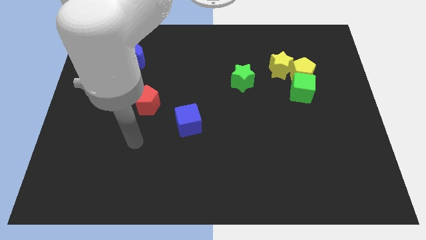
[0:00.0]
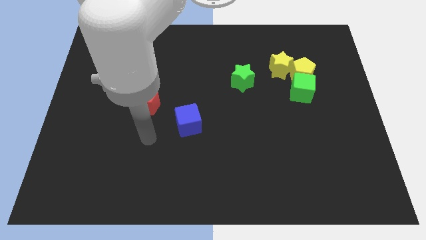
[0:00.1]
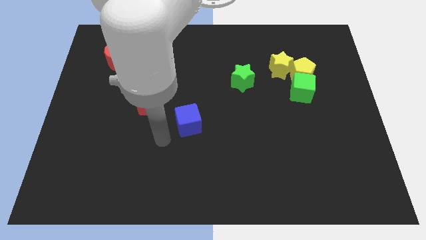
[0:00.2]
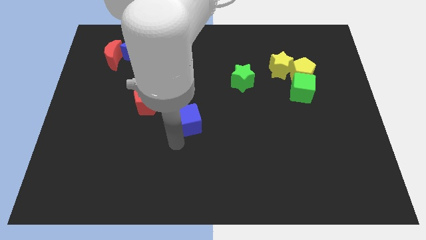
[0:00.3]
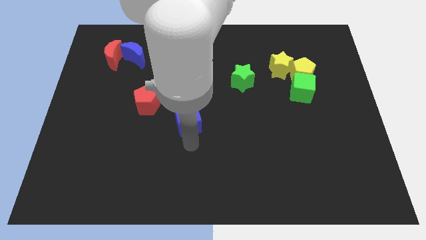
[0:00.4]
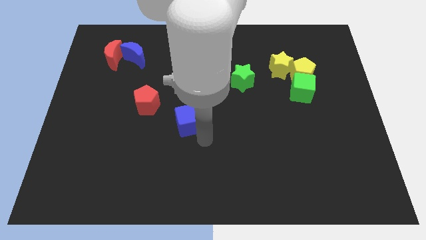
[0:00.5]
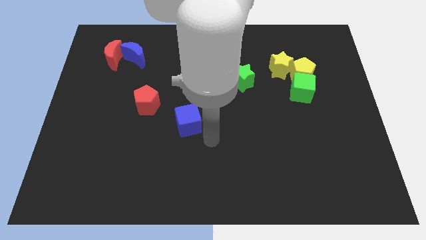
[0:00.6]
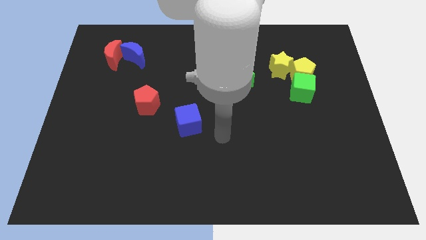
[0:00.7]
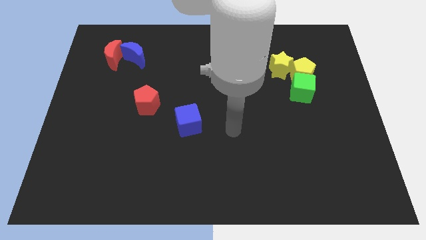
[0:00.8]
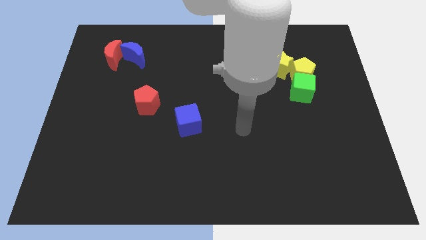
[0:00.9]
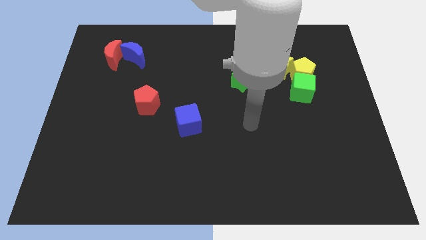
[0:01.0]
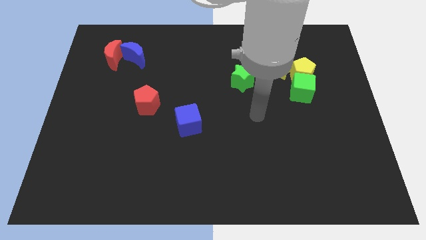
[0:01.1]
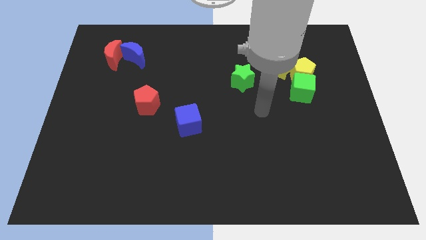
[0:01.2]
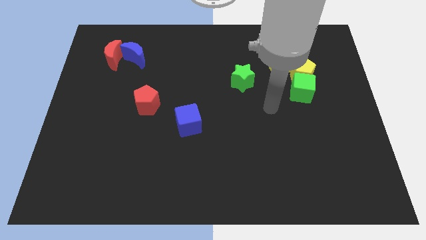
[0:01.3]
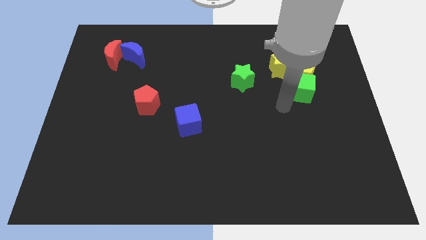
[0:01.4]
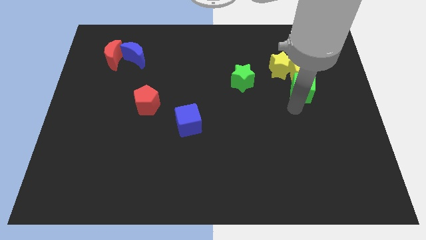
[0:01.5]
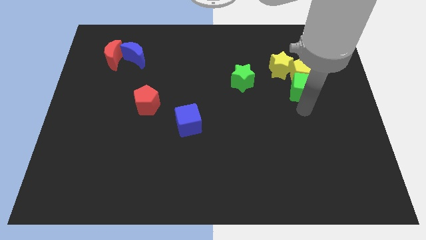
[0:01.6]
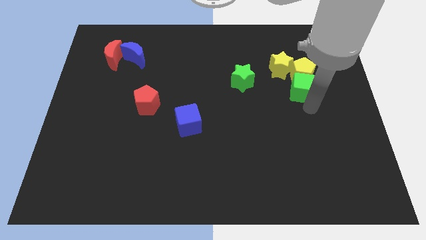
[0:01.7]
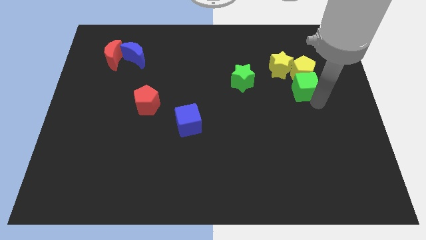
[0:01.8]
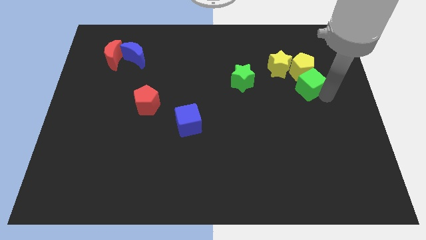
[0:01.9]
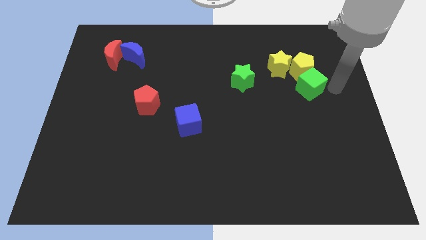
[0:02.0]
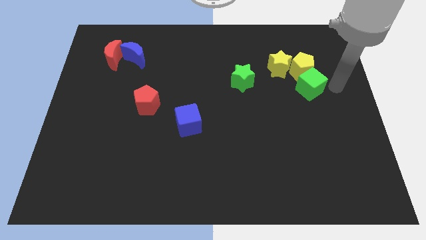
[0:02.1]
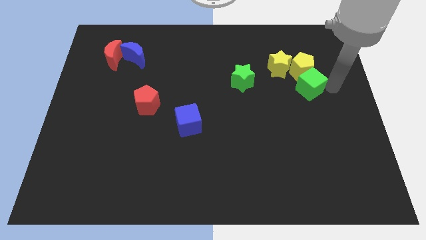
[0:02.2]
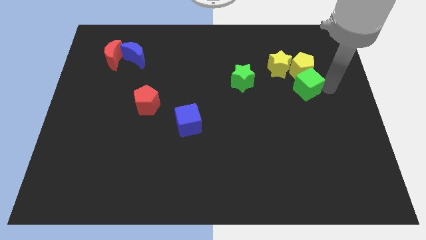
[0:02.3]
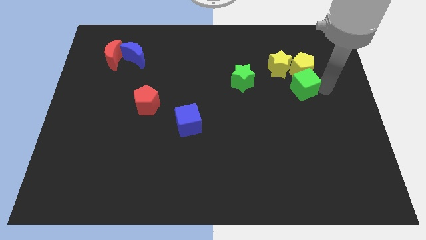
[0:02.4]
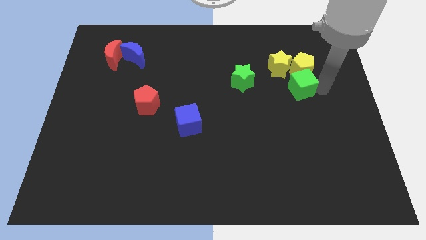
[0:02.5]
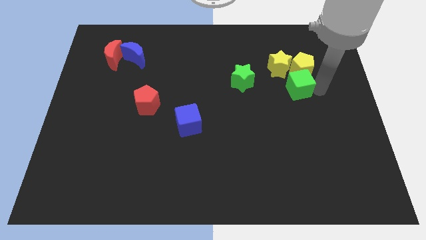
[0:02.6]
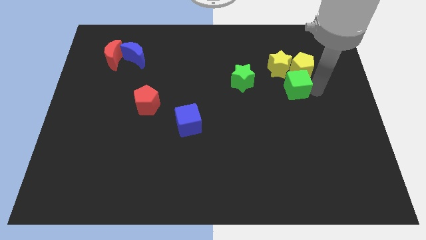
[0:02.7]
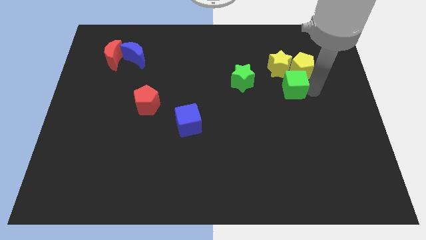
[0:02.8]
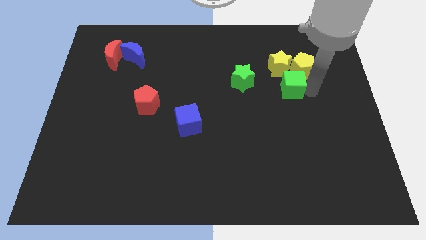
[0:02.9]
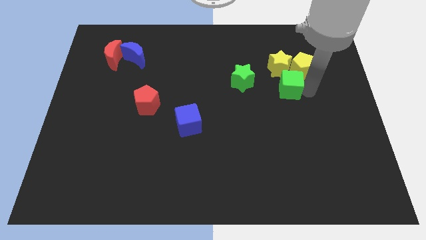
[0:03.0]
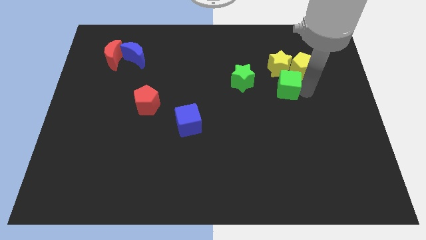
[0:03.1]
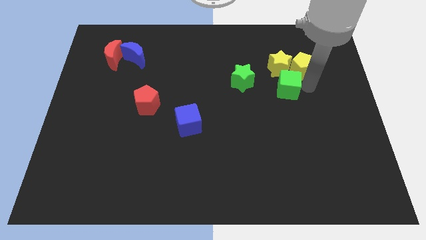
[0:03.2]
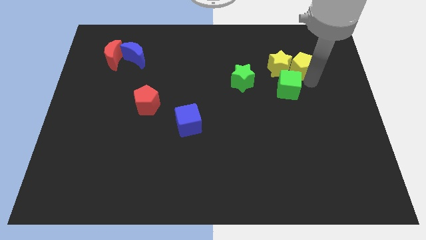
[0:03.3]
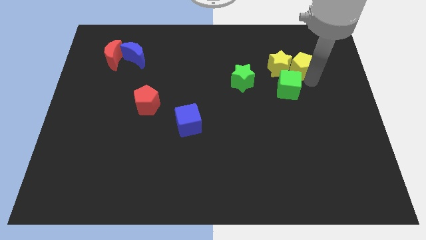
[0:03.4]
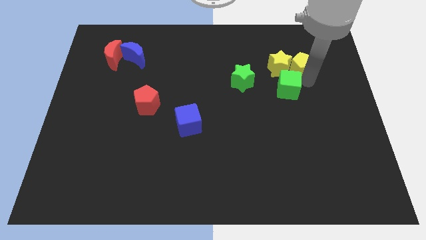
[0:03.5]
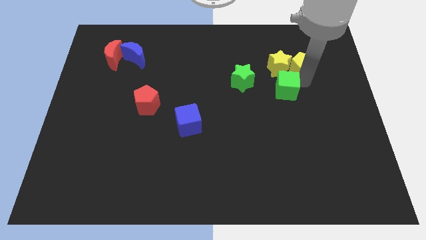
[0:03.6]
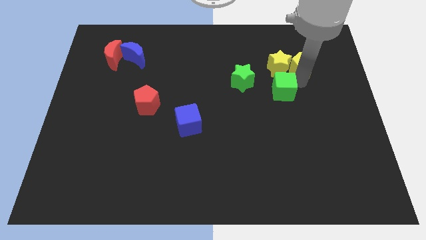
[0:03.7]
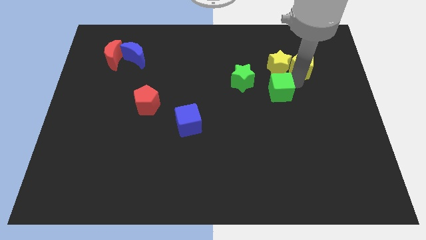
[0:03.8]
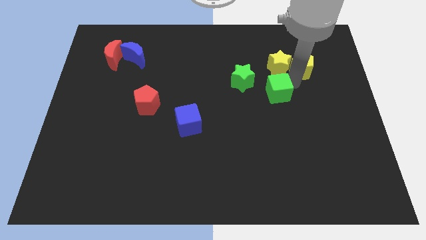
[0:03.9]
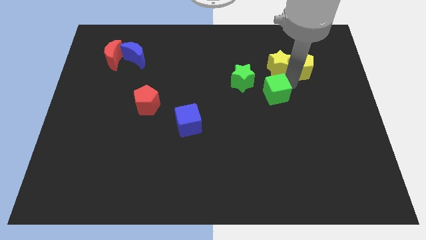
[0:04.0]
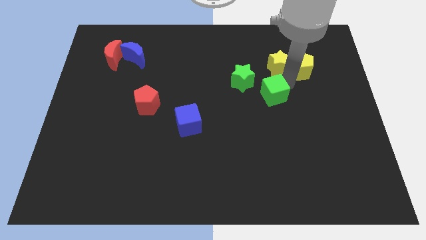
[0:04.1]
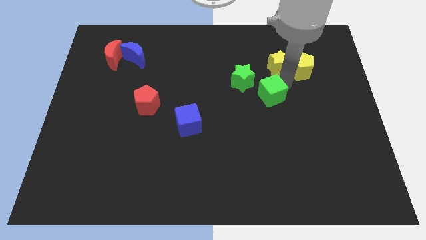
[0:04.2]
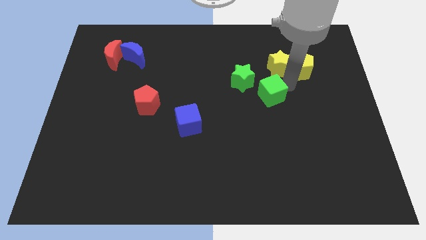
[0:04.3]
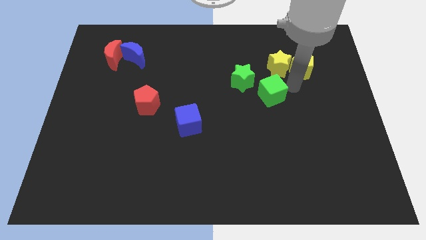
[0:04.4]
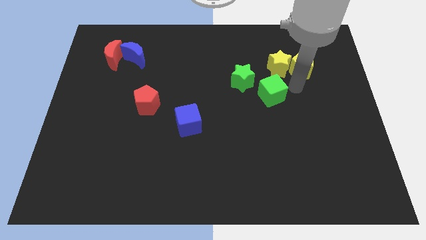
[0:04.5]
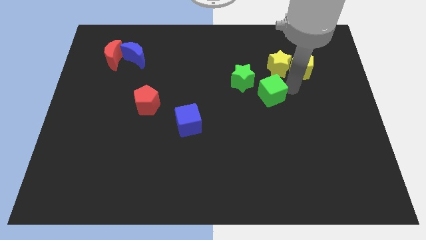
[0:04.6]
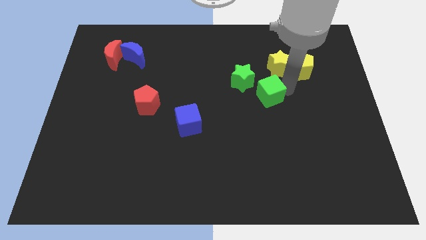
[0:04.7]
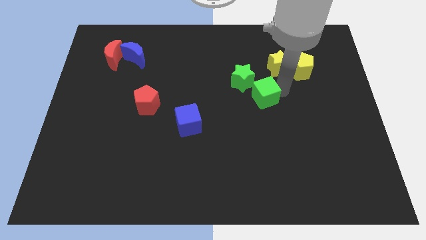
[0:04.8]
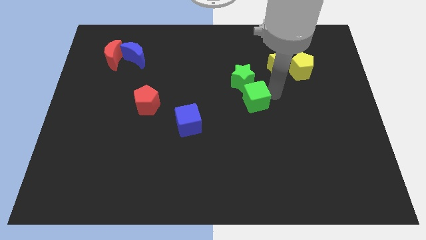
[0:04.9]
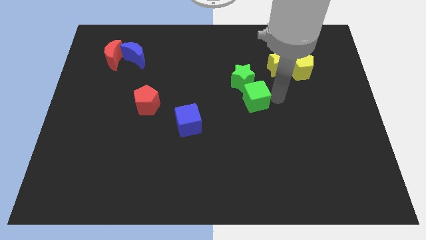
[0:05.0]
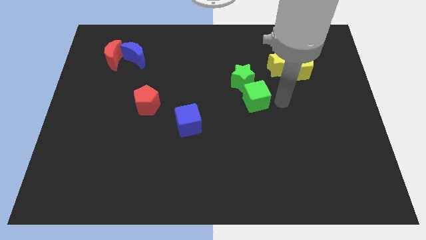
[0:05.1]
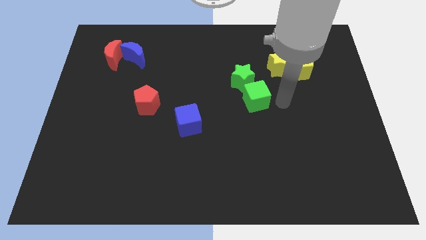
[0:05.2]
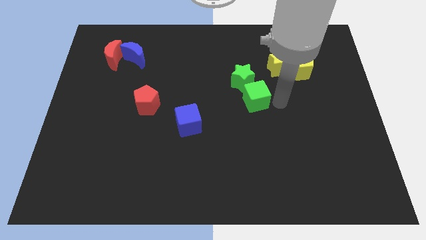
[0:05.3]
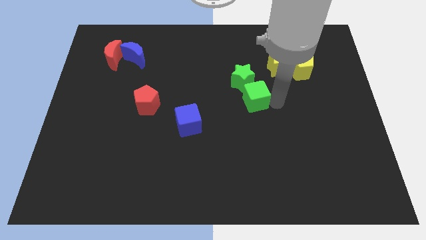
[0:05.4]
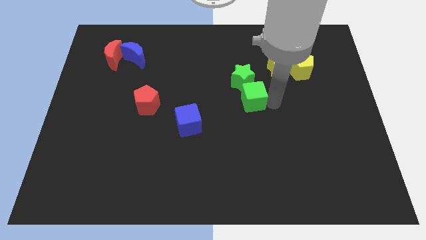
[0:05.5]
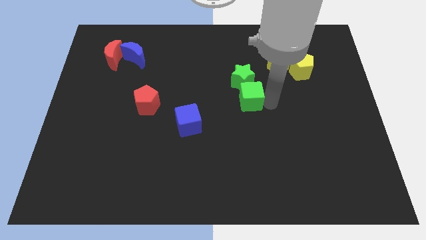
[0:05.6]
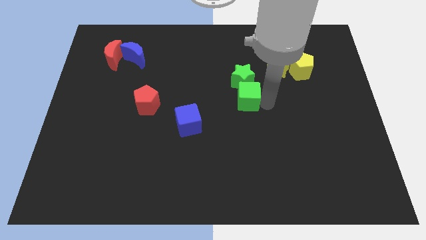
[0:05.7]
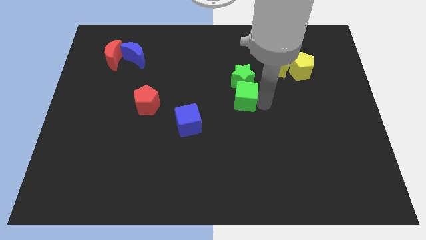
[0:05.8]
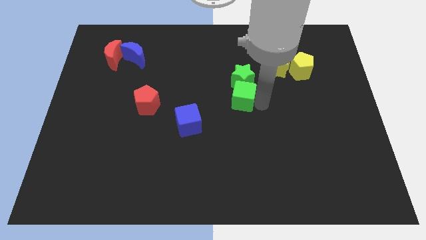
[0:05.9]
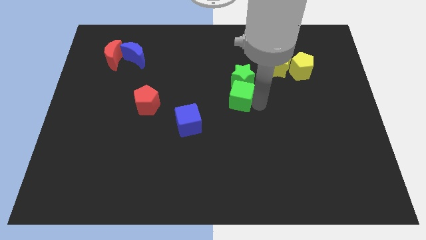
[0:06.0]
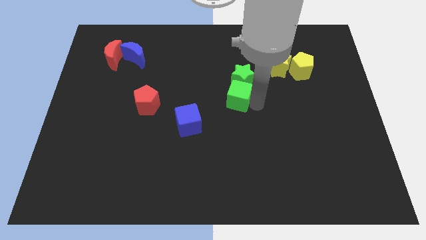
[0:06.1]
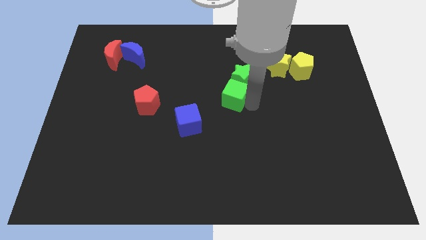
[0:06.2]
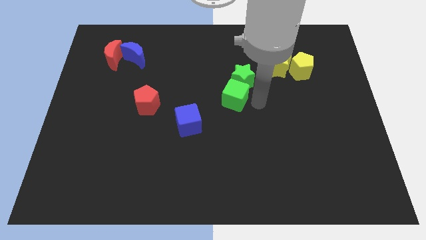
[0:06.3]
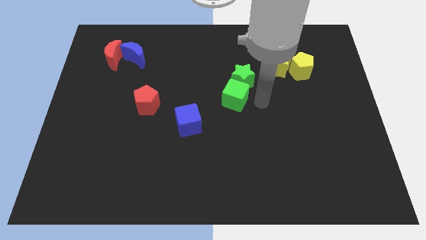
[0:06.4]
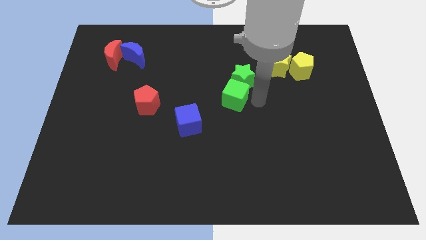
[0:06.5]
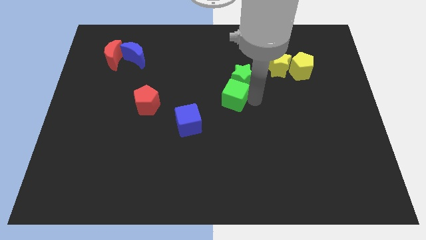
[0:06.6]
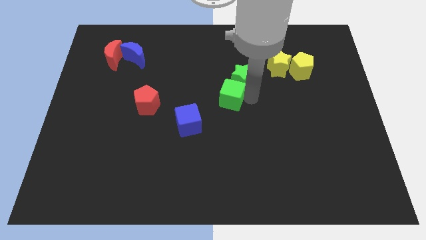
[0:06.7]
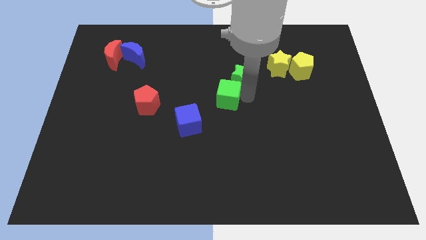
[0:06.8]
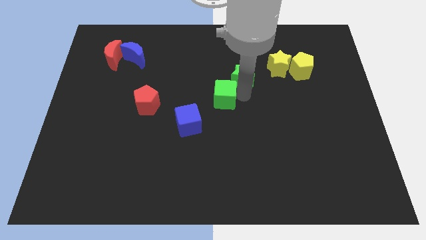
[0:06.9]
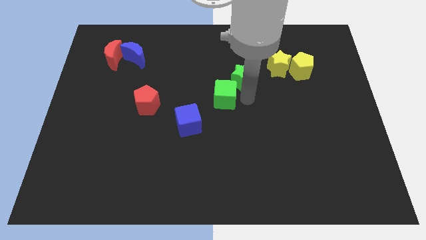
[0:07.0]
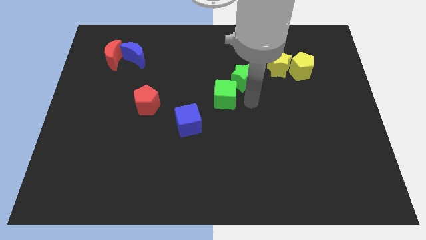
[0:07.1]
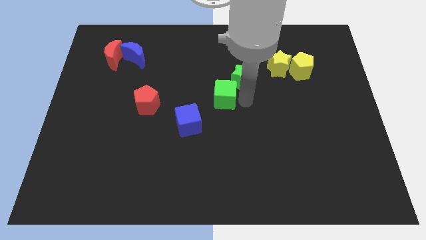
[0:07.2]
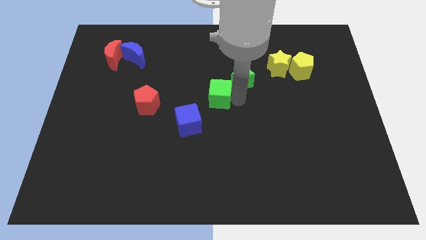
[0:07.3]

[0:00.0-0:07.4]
push the green cube left

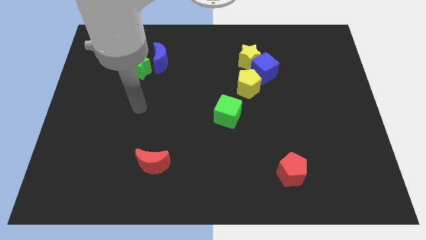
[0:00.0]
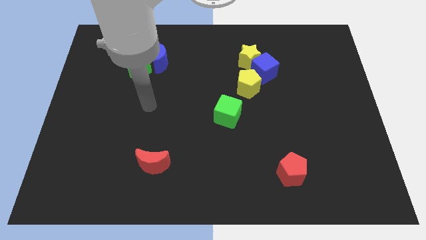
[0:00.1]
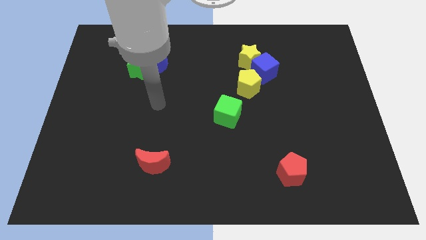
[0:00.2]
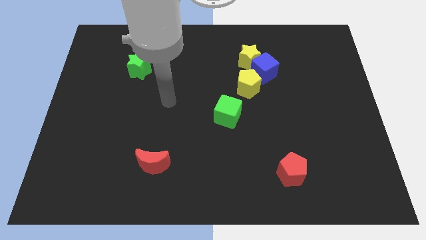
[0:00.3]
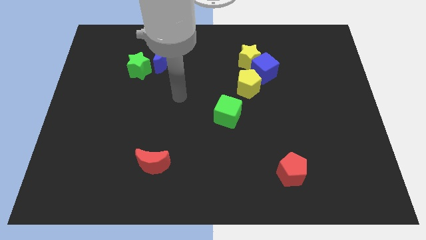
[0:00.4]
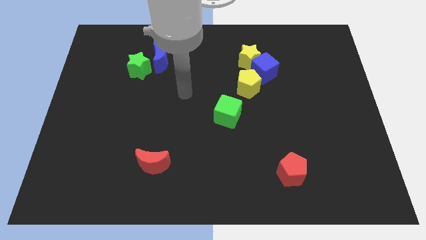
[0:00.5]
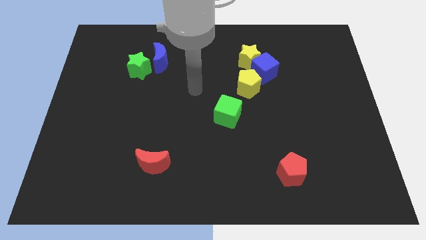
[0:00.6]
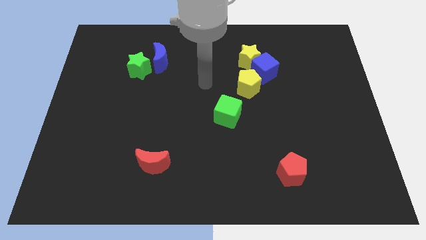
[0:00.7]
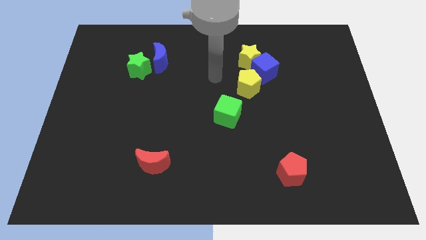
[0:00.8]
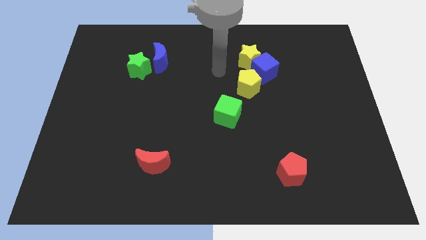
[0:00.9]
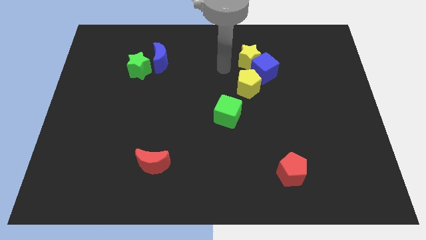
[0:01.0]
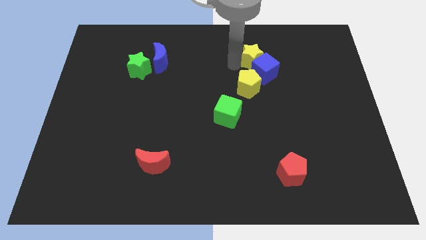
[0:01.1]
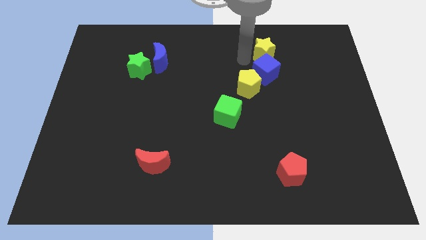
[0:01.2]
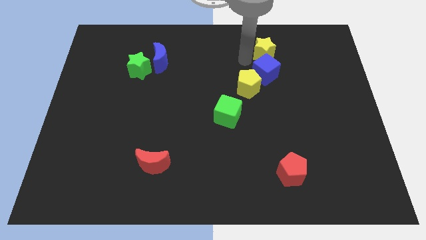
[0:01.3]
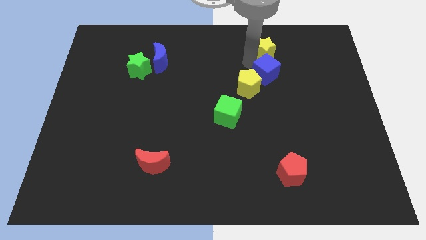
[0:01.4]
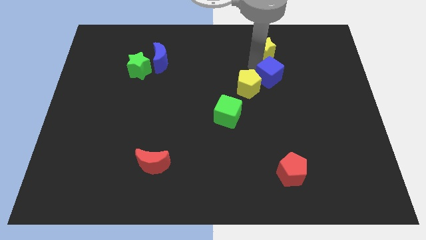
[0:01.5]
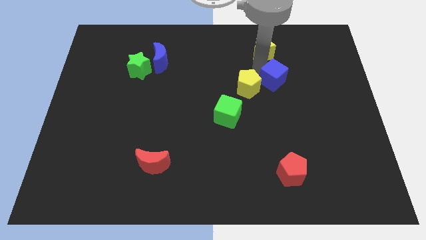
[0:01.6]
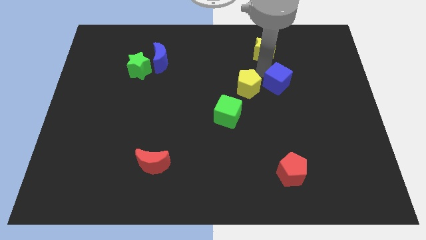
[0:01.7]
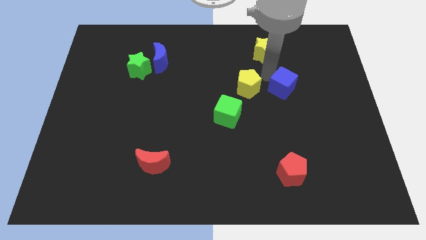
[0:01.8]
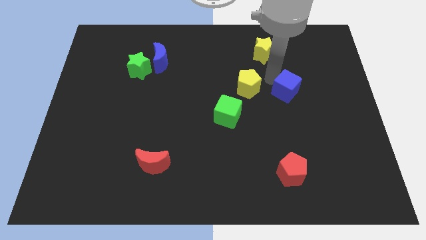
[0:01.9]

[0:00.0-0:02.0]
slightly move the blue cube down and right diagonally
